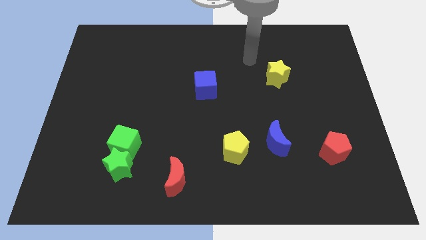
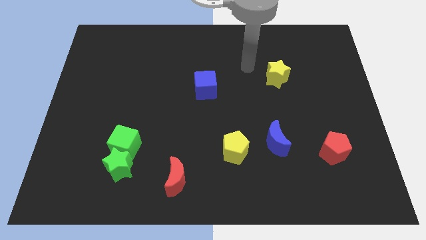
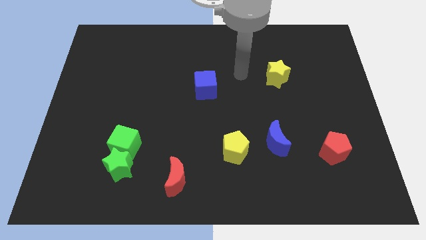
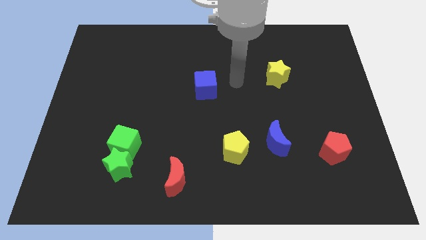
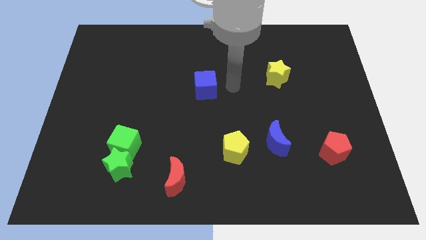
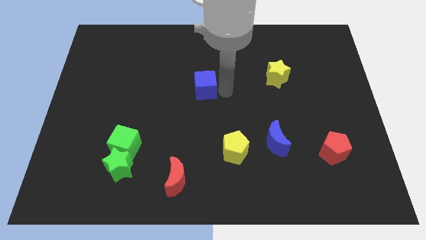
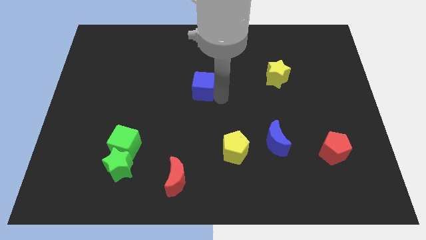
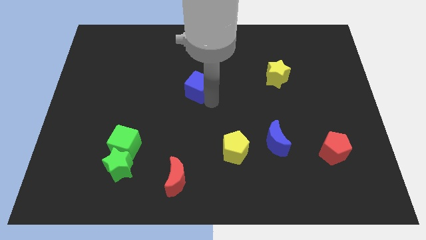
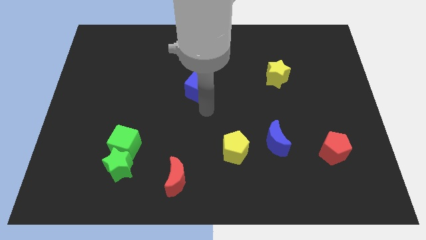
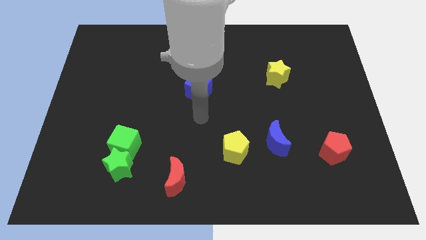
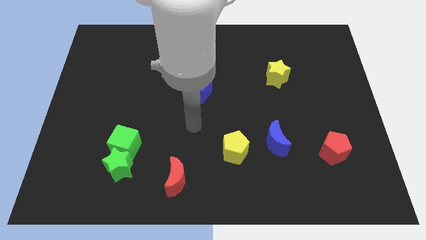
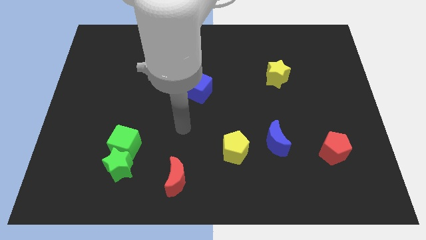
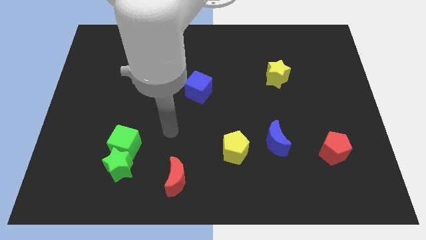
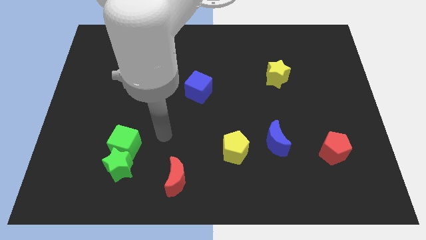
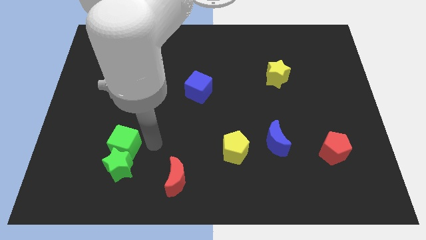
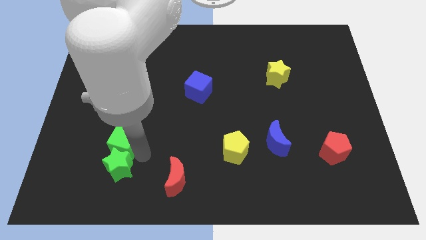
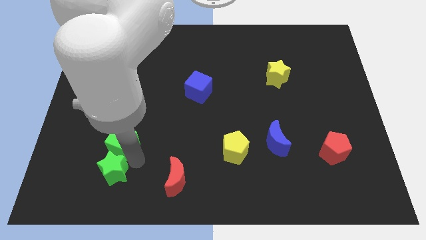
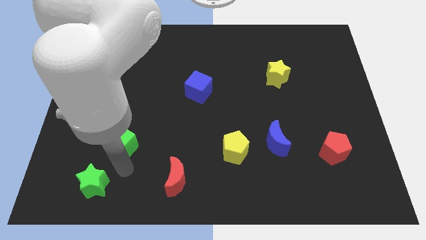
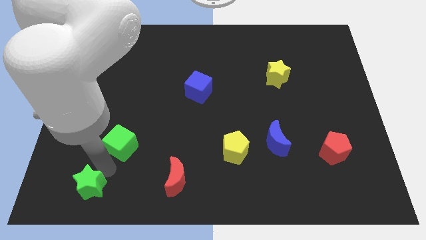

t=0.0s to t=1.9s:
separate the green cube from the green star

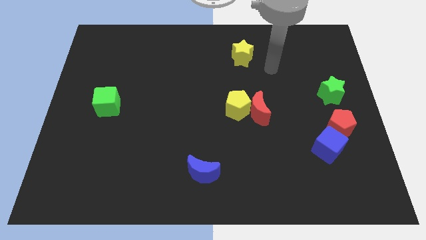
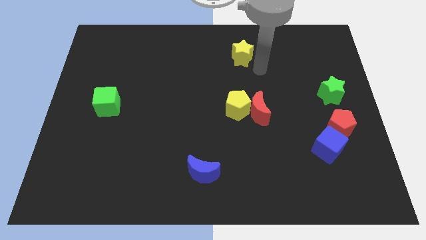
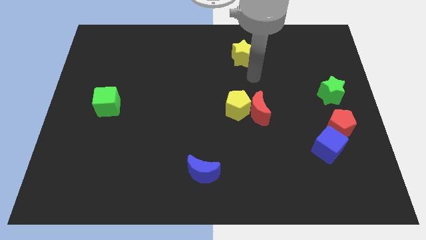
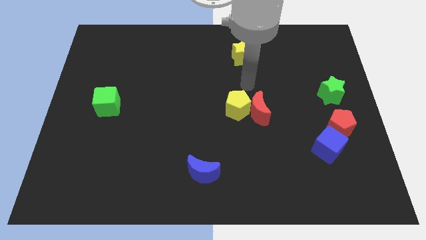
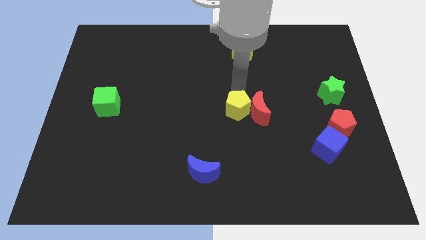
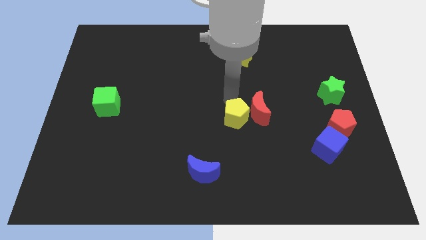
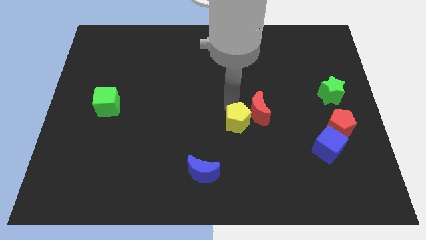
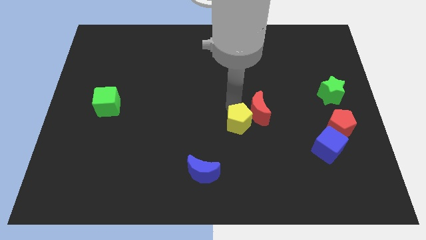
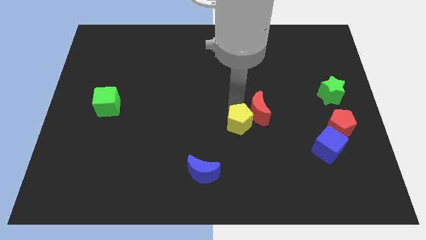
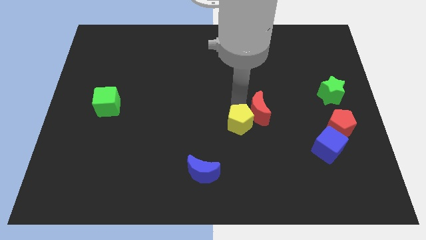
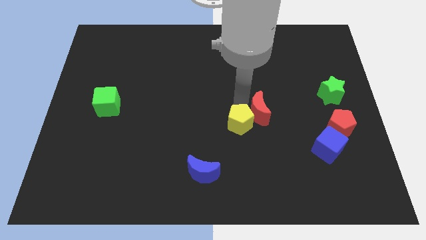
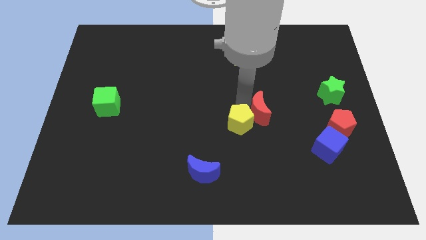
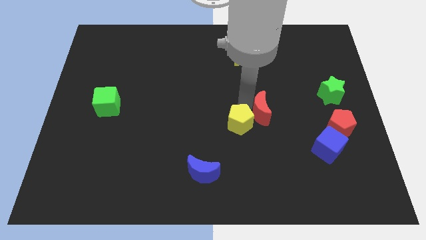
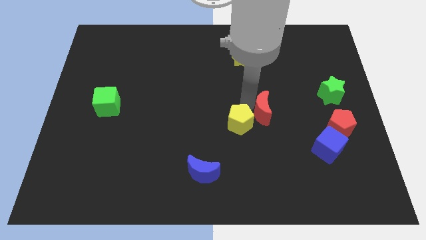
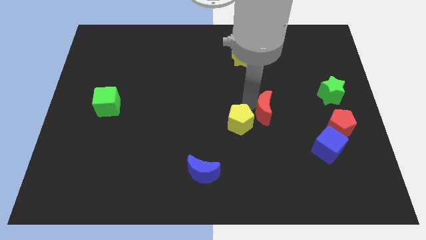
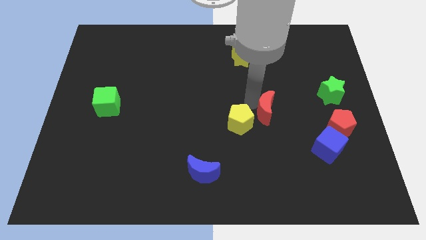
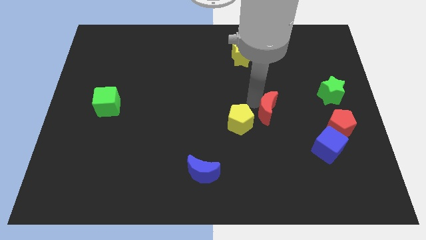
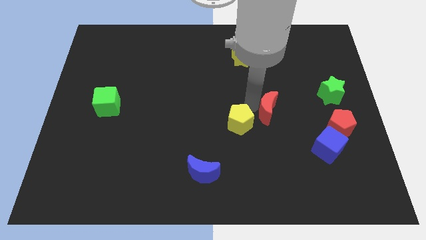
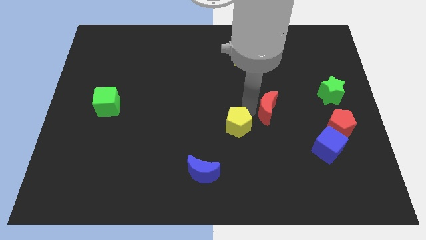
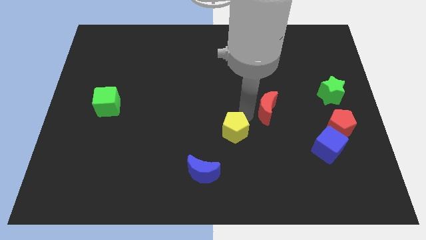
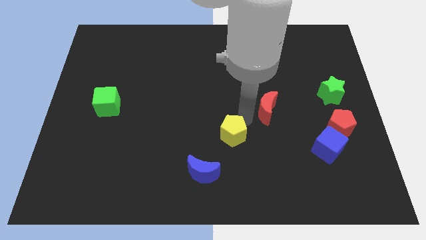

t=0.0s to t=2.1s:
move the red moon away from the yellow pentagon

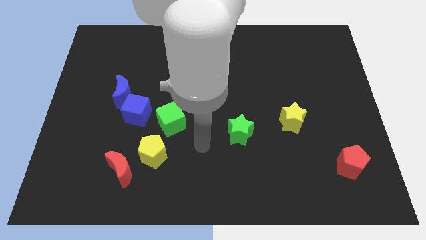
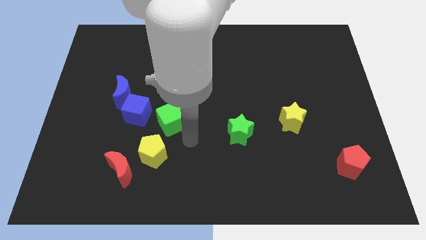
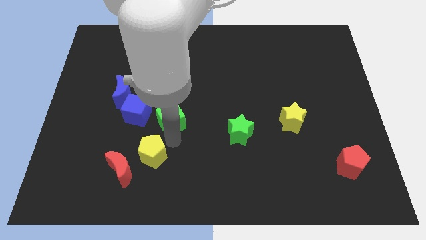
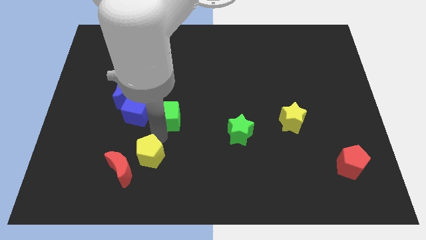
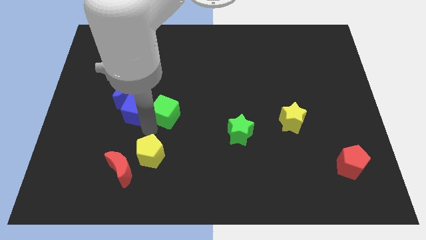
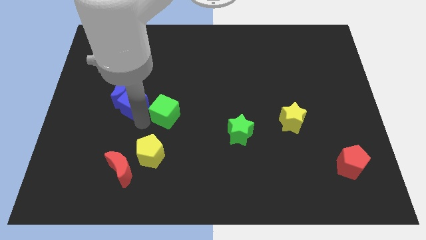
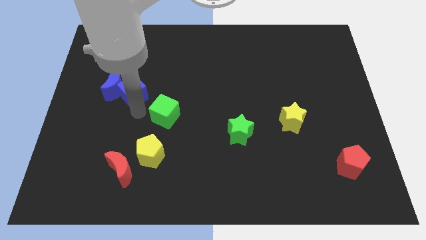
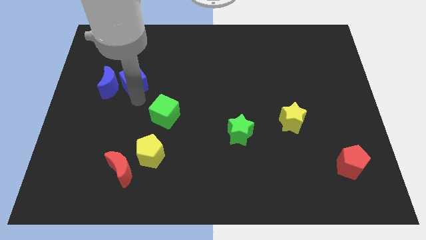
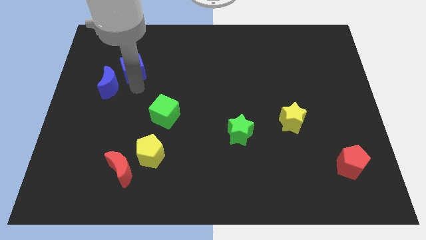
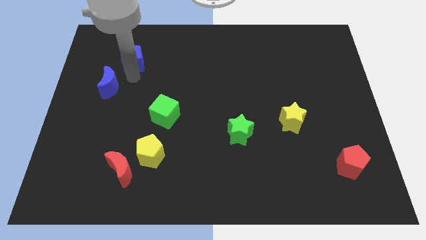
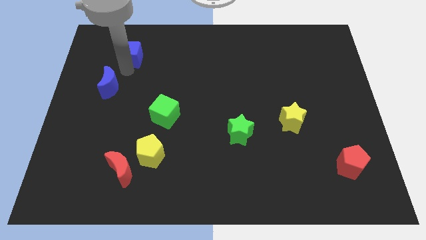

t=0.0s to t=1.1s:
move the blue moon away from the blue cube

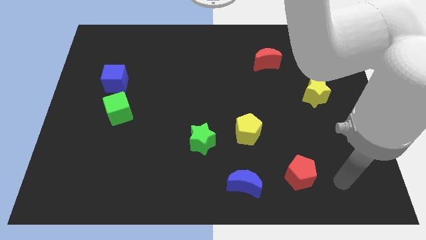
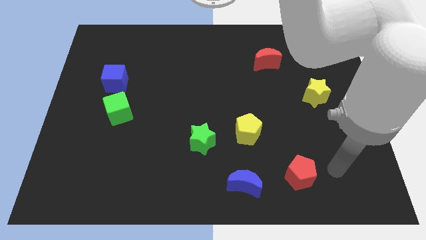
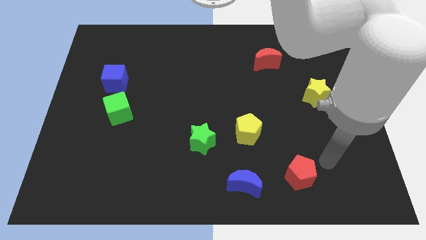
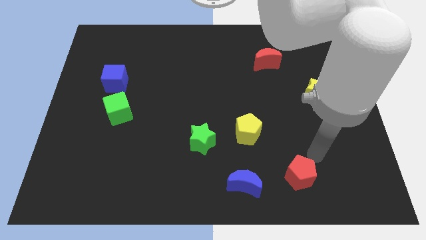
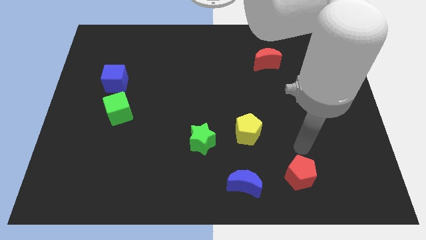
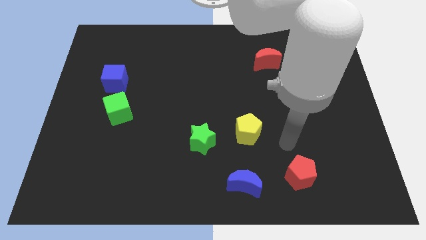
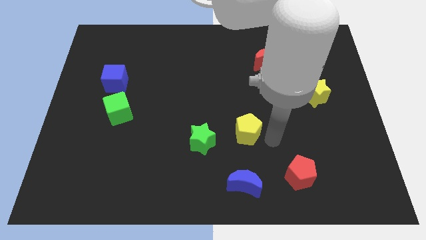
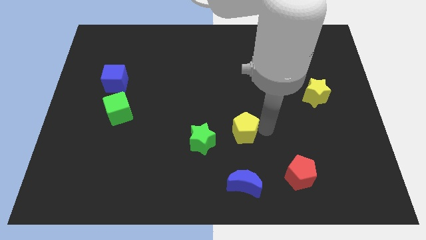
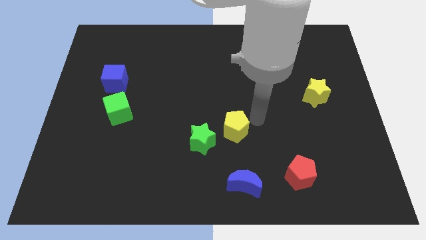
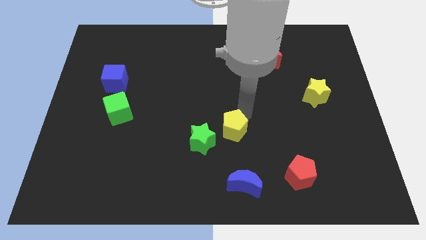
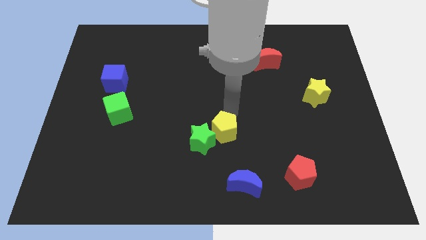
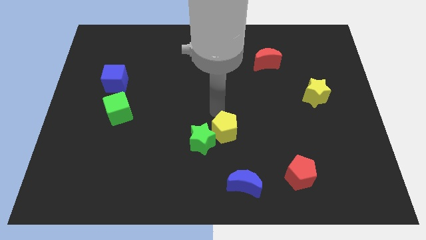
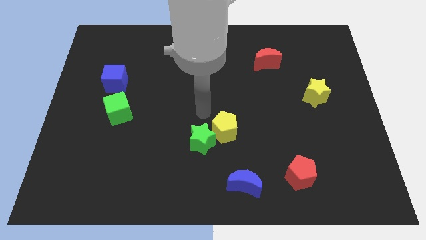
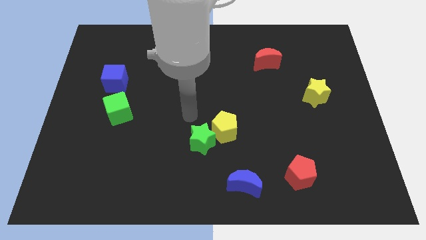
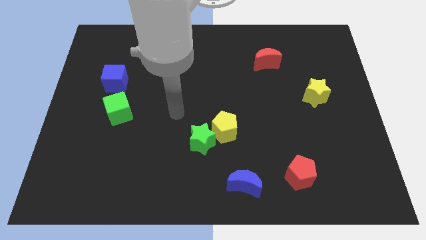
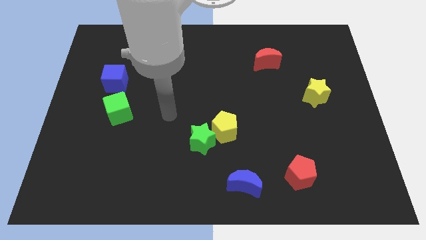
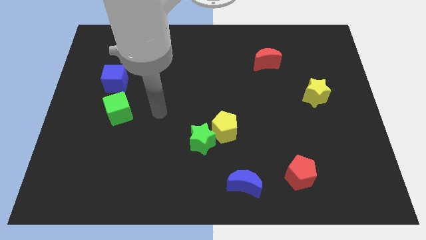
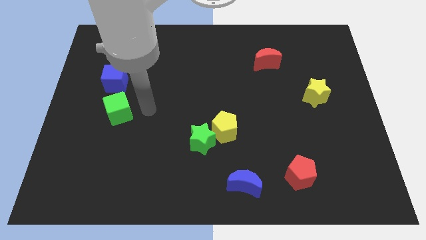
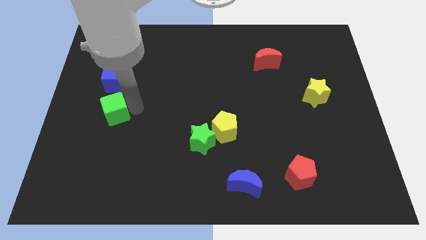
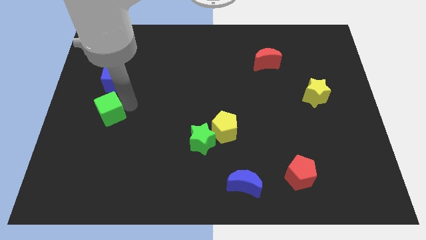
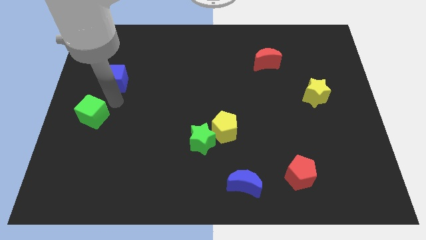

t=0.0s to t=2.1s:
move the blue cube away from the green cube

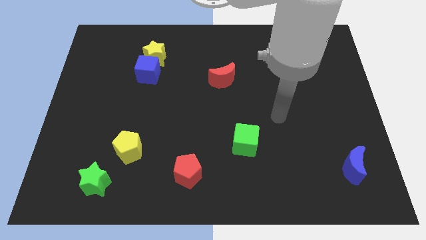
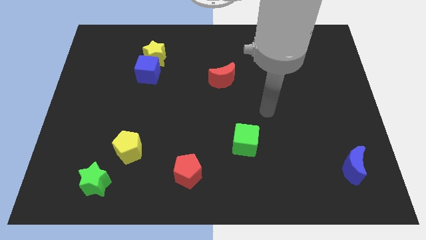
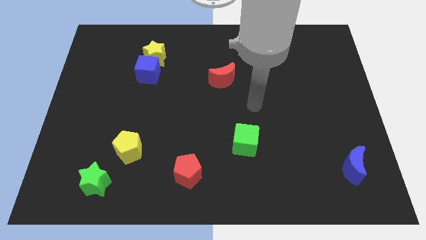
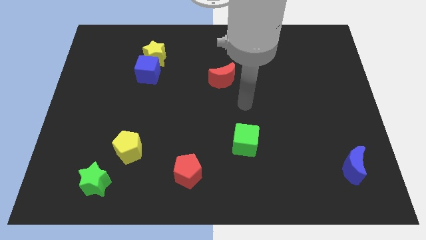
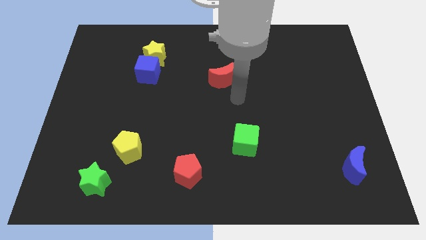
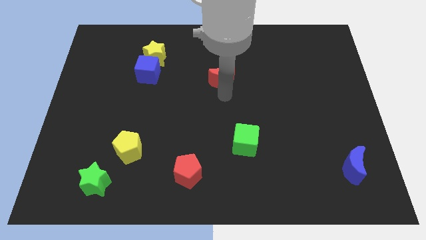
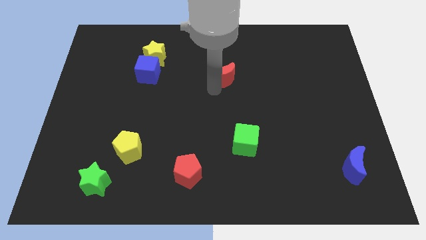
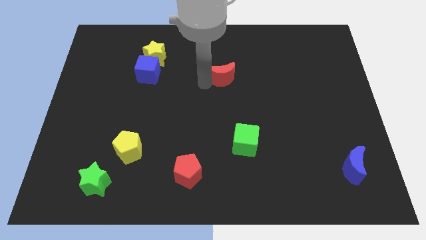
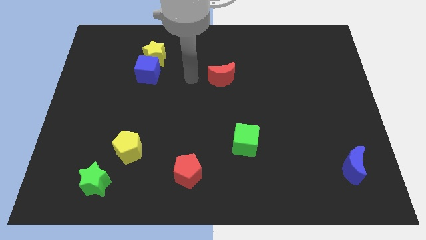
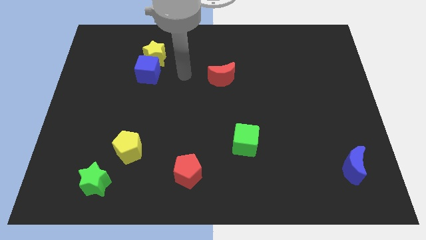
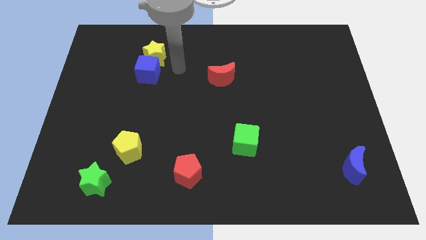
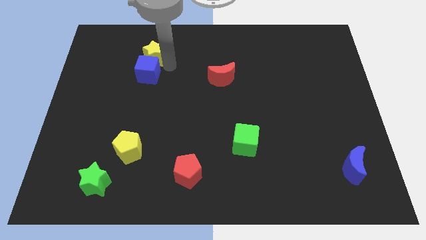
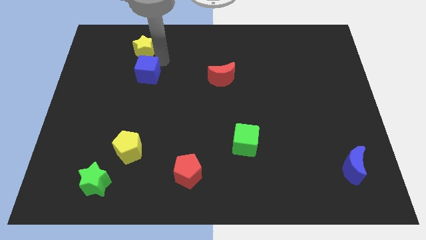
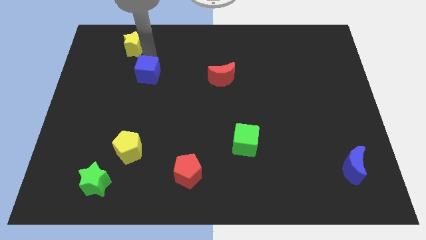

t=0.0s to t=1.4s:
separate the blue cube from the yellow star

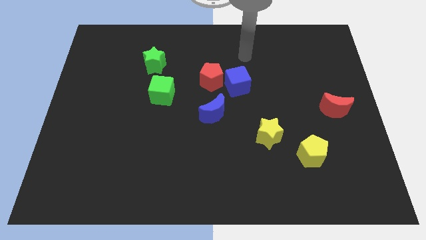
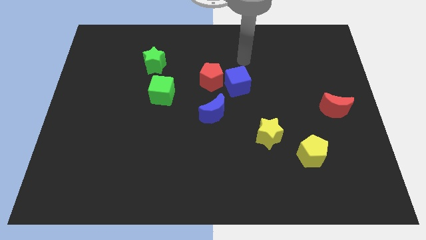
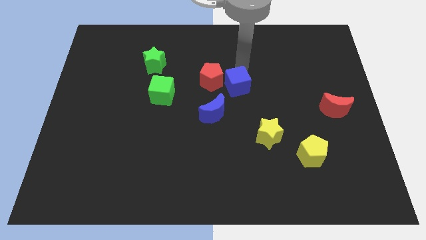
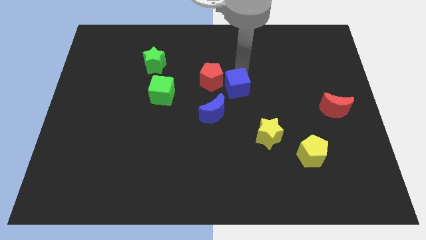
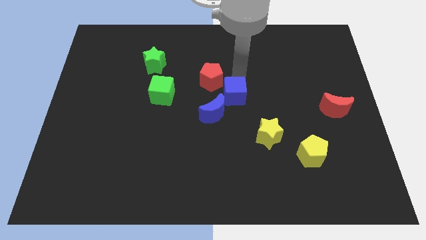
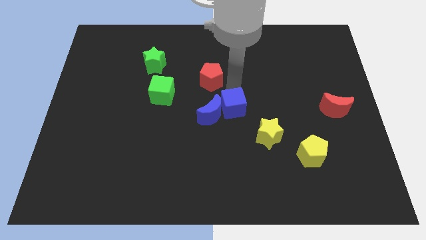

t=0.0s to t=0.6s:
pull the red pentagon apart from the blue cube
